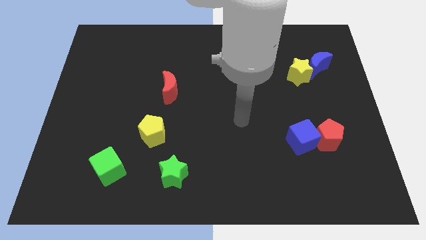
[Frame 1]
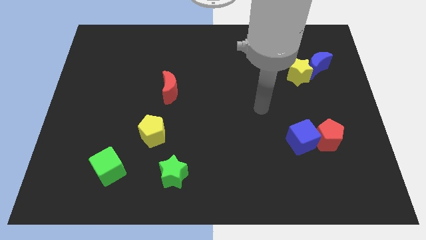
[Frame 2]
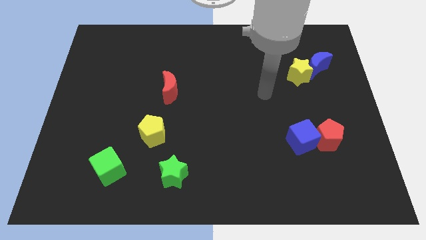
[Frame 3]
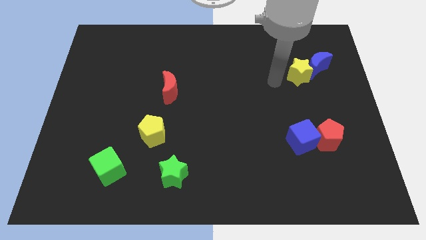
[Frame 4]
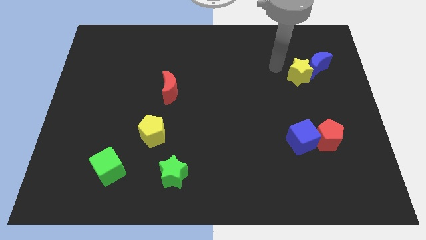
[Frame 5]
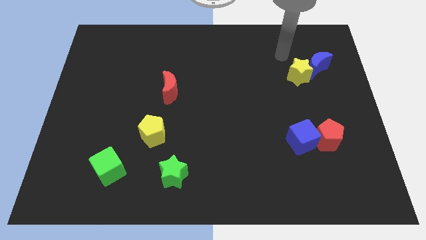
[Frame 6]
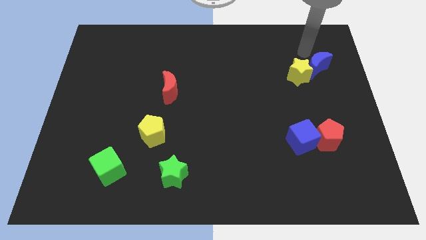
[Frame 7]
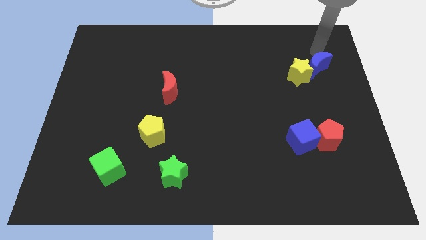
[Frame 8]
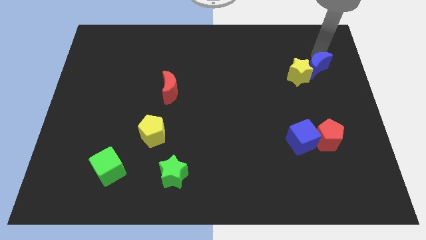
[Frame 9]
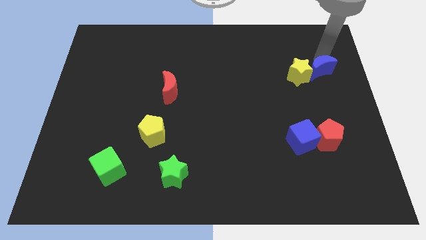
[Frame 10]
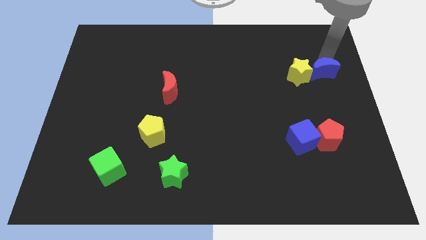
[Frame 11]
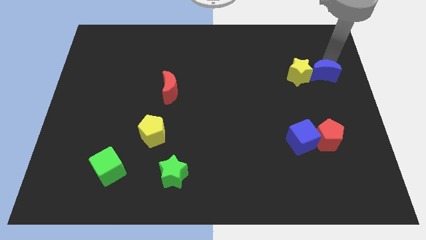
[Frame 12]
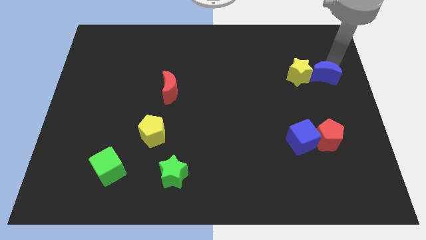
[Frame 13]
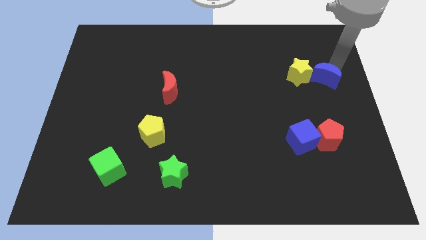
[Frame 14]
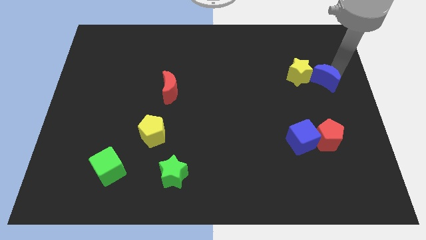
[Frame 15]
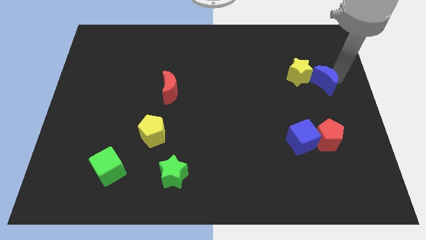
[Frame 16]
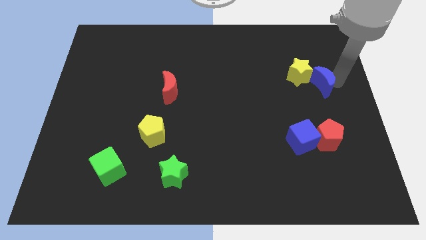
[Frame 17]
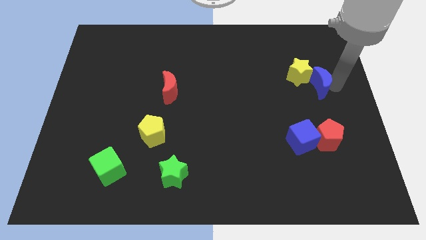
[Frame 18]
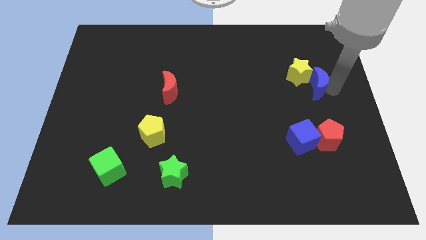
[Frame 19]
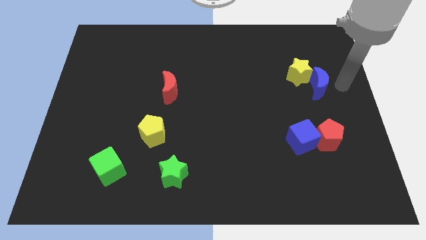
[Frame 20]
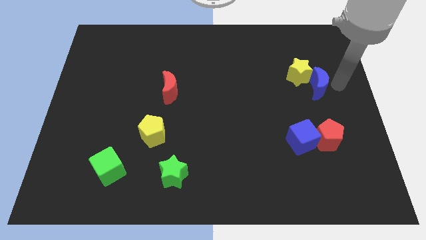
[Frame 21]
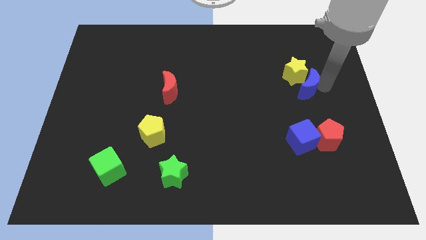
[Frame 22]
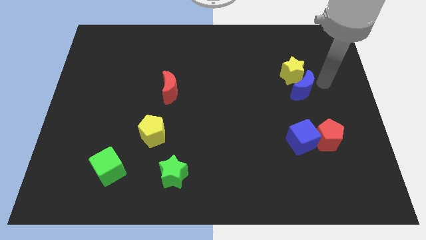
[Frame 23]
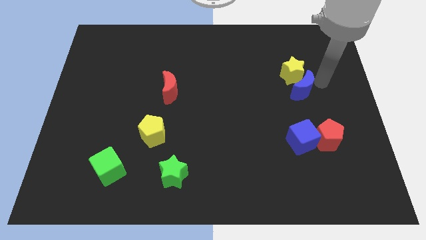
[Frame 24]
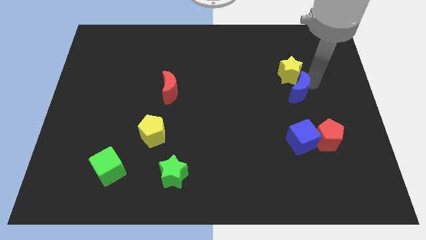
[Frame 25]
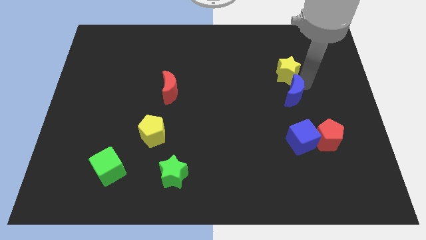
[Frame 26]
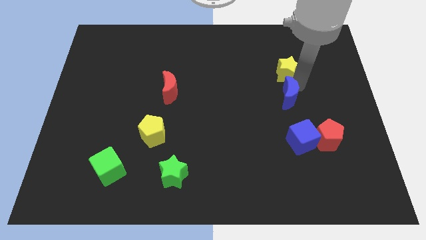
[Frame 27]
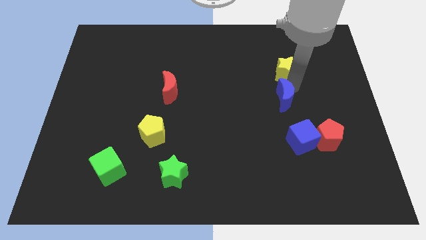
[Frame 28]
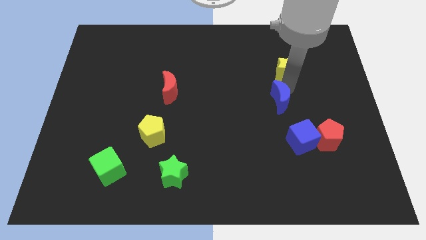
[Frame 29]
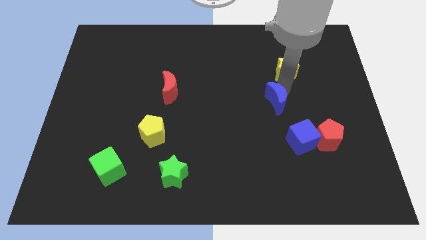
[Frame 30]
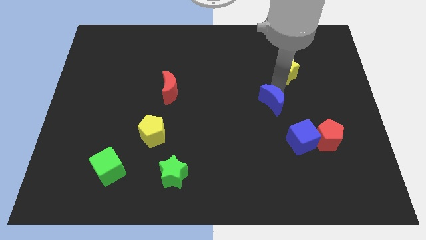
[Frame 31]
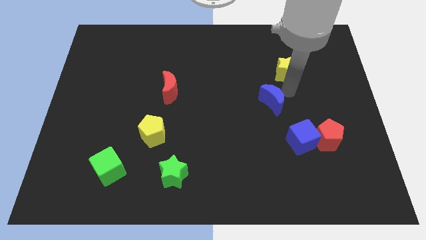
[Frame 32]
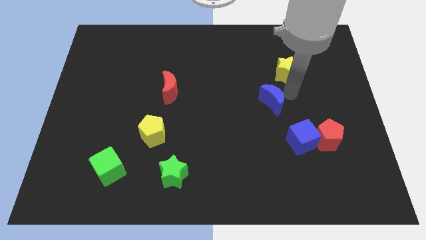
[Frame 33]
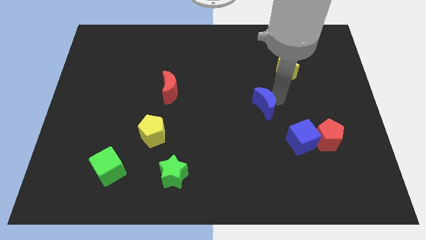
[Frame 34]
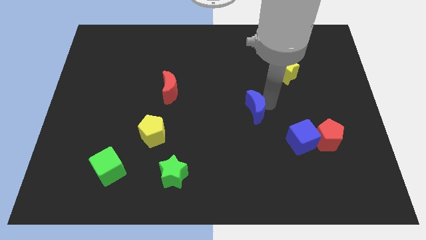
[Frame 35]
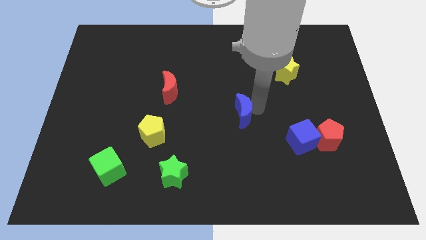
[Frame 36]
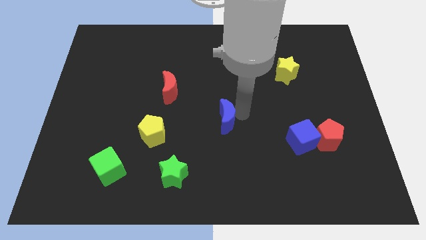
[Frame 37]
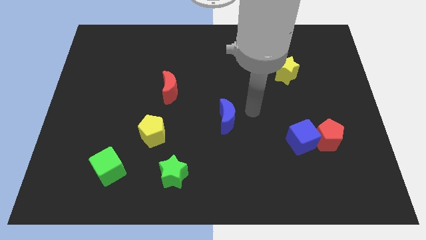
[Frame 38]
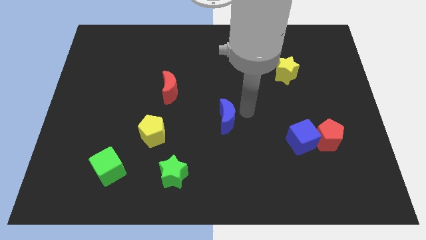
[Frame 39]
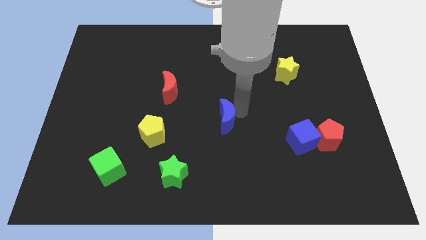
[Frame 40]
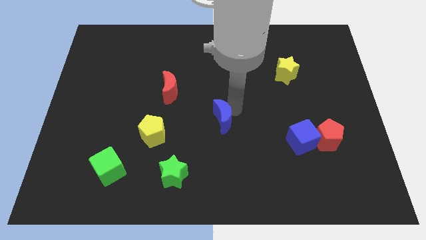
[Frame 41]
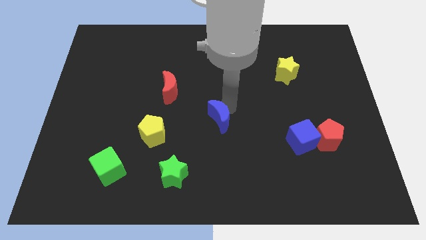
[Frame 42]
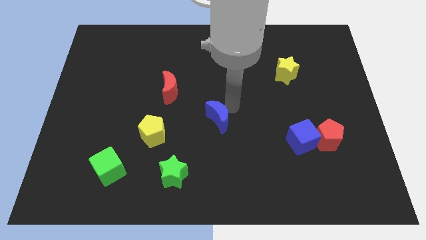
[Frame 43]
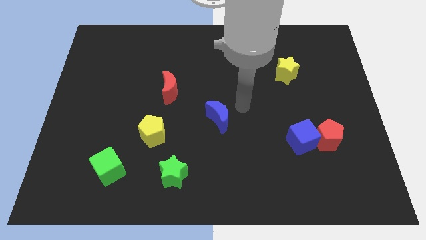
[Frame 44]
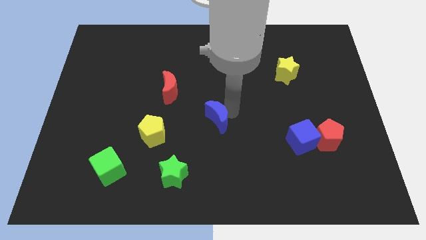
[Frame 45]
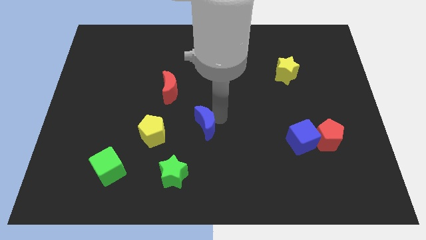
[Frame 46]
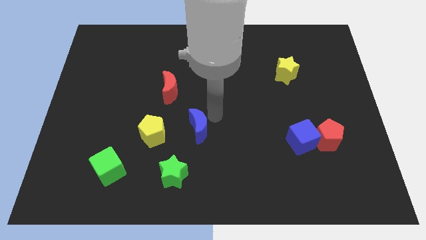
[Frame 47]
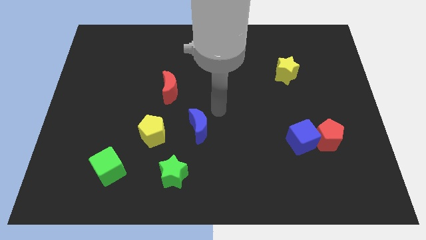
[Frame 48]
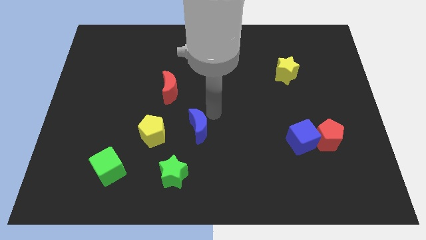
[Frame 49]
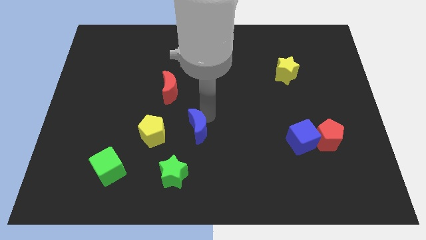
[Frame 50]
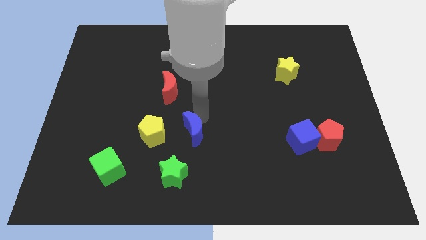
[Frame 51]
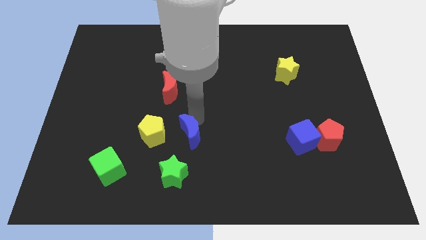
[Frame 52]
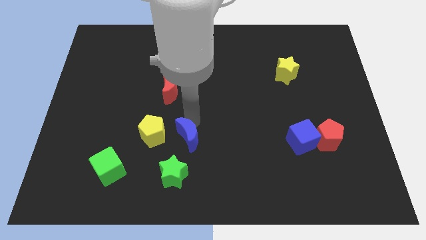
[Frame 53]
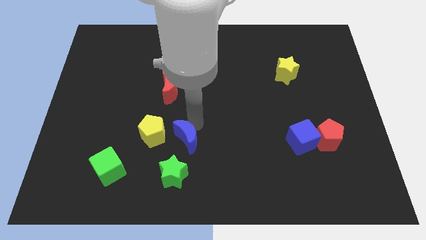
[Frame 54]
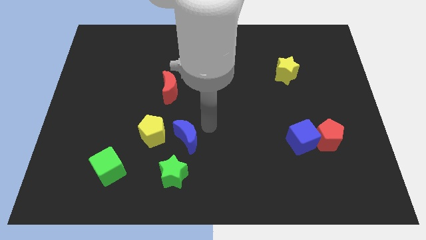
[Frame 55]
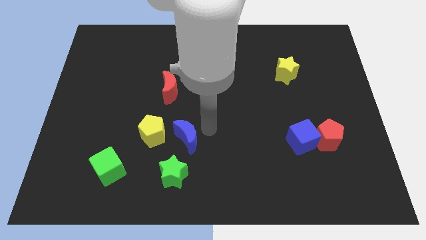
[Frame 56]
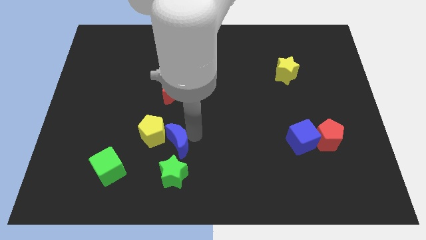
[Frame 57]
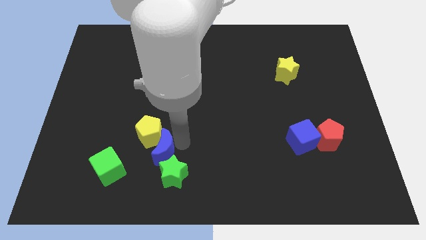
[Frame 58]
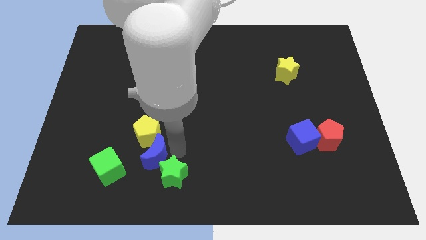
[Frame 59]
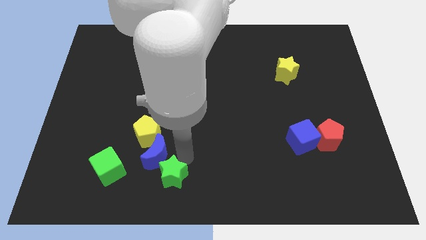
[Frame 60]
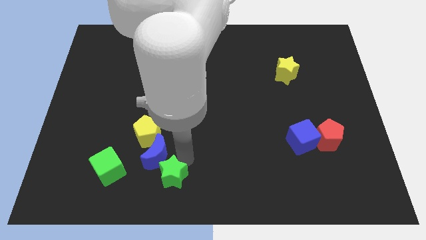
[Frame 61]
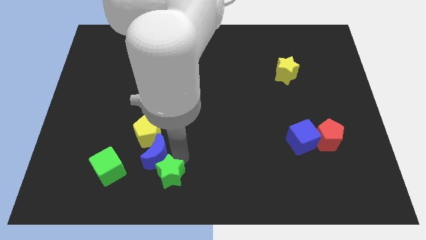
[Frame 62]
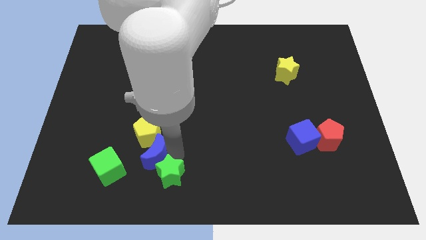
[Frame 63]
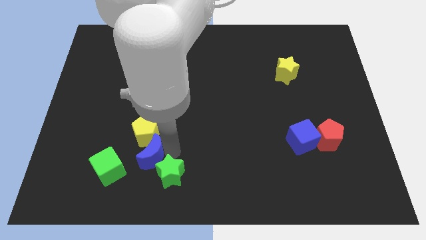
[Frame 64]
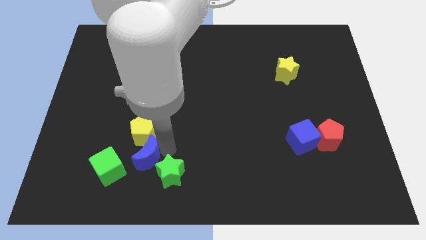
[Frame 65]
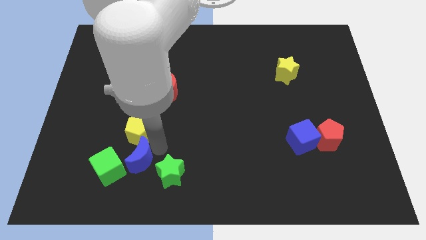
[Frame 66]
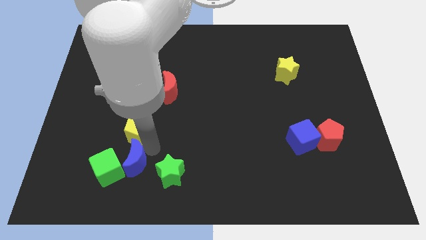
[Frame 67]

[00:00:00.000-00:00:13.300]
put the blue moon to the green cube
